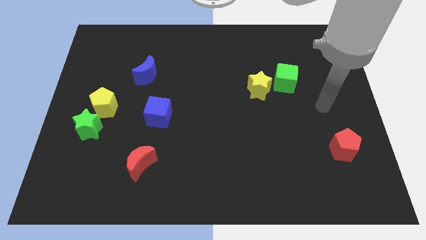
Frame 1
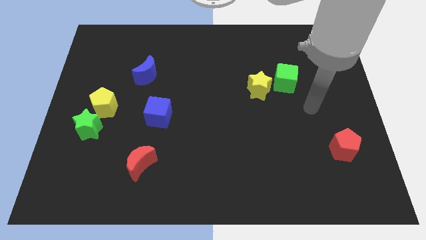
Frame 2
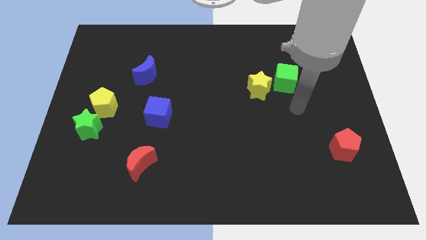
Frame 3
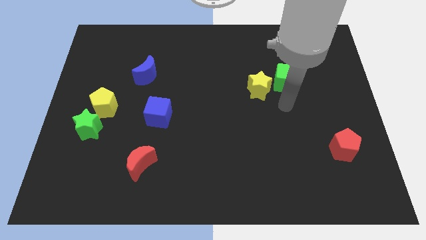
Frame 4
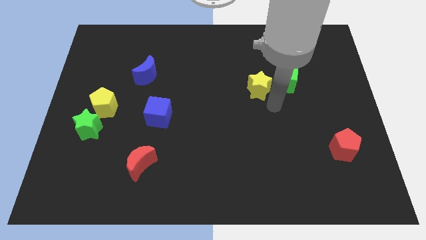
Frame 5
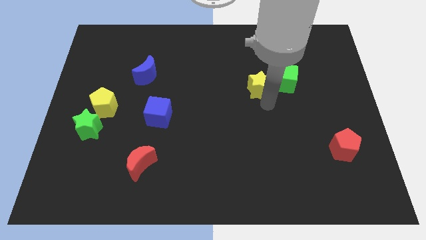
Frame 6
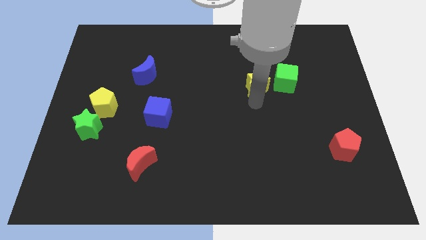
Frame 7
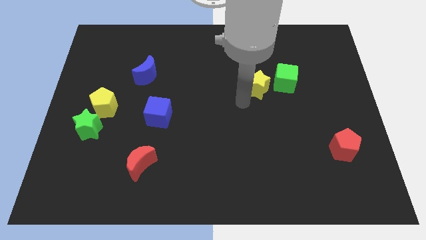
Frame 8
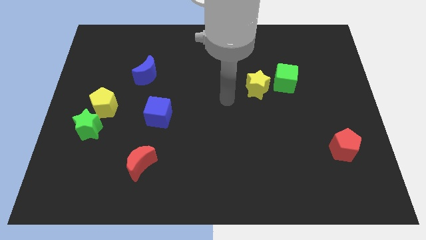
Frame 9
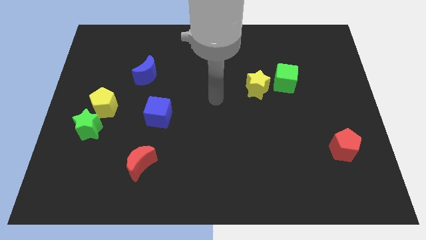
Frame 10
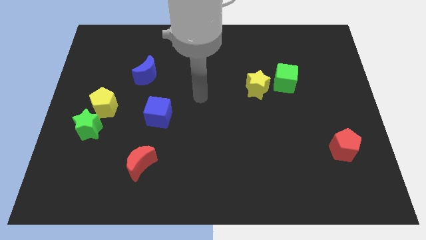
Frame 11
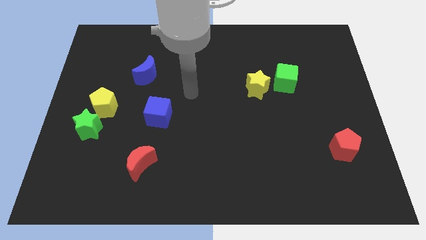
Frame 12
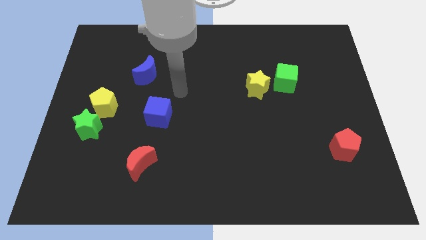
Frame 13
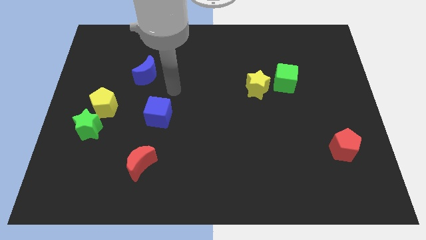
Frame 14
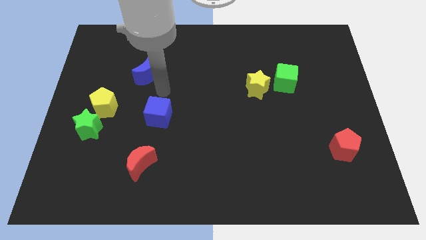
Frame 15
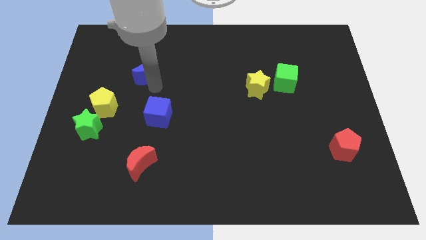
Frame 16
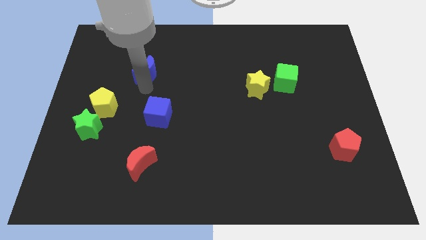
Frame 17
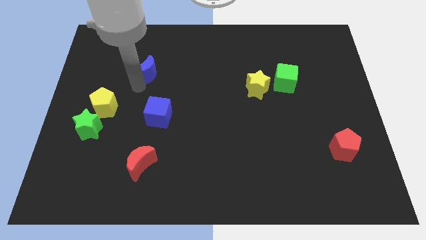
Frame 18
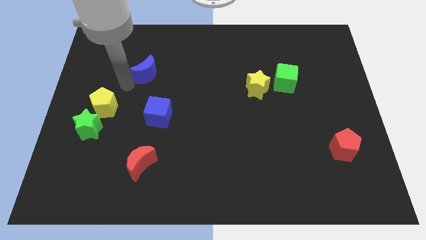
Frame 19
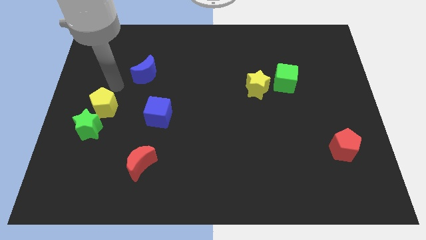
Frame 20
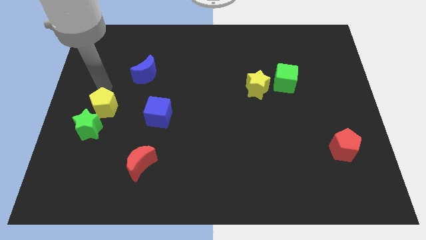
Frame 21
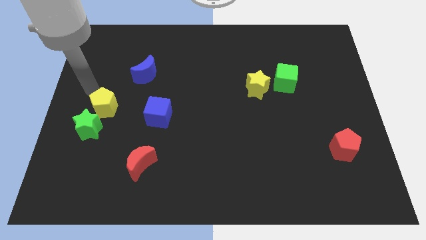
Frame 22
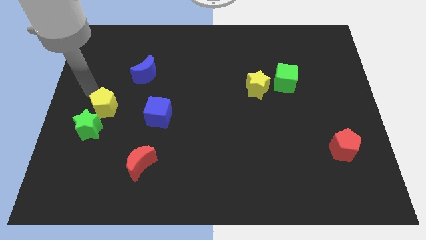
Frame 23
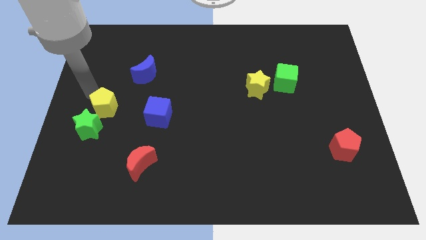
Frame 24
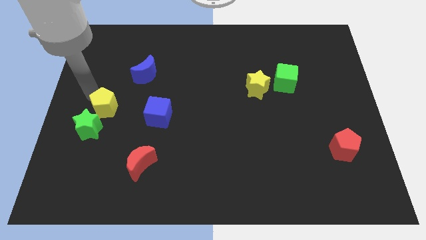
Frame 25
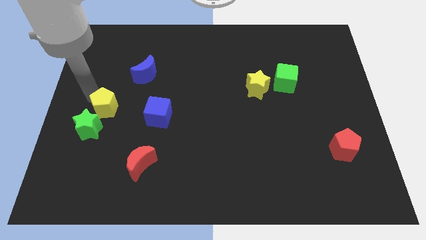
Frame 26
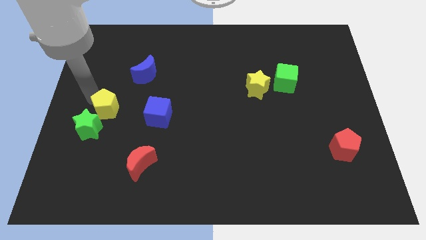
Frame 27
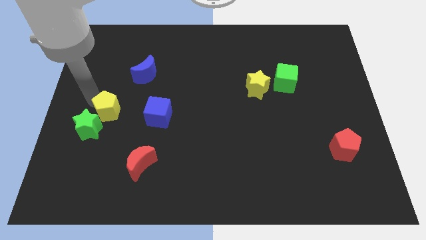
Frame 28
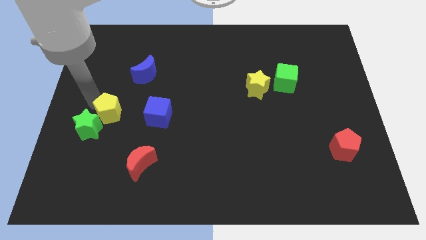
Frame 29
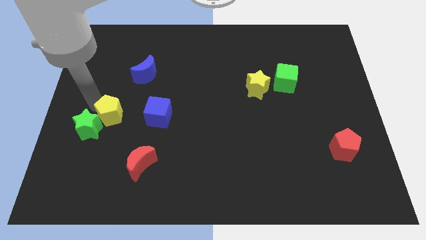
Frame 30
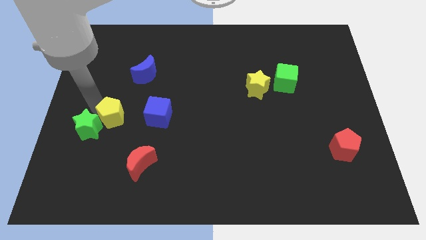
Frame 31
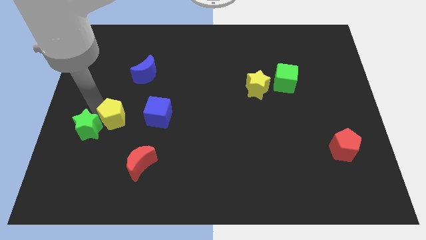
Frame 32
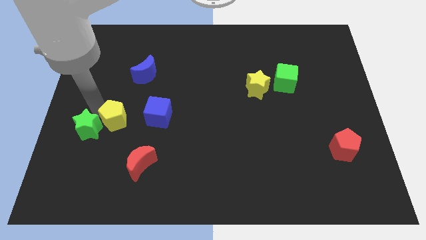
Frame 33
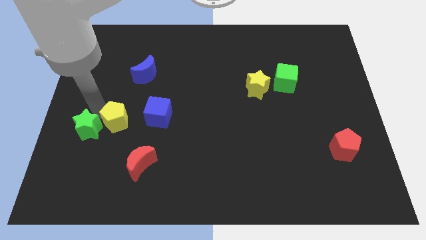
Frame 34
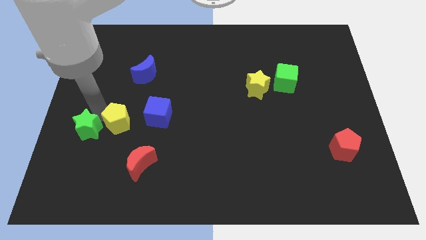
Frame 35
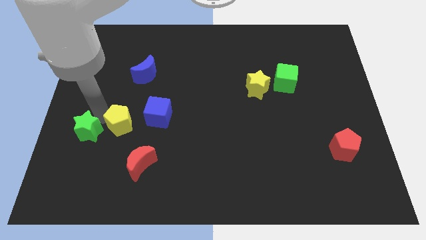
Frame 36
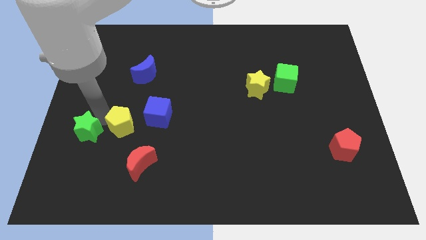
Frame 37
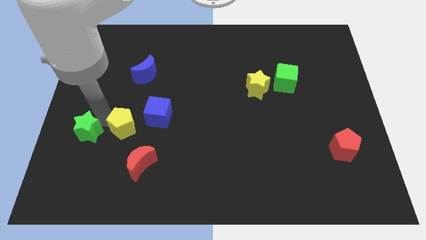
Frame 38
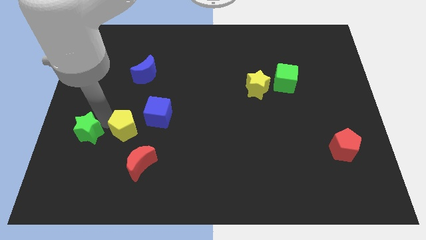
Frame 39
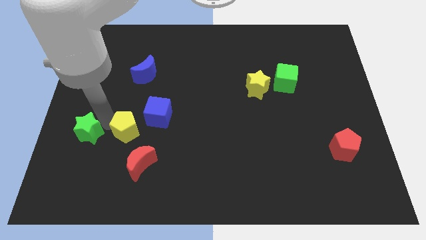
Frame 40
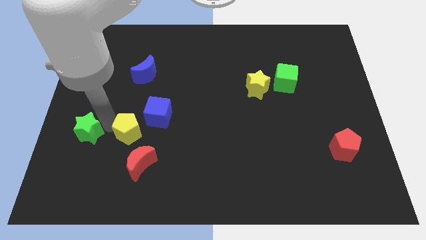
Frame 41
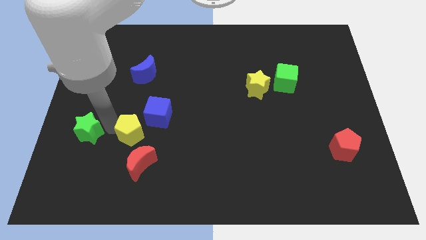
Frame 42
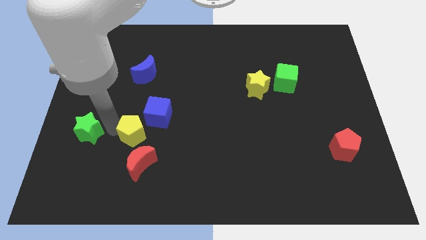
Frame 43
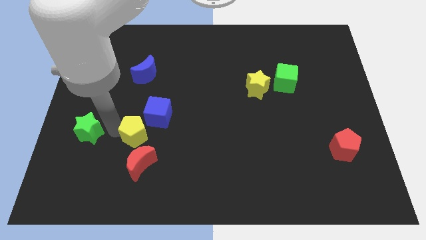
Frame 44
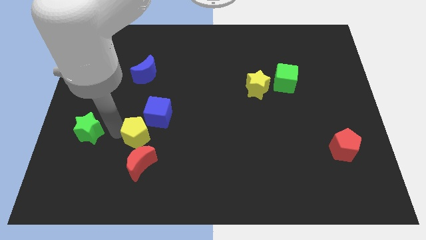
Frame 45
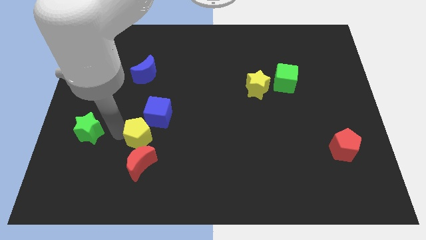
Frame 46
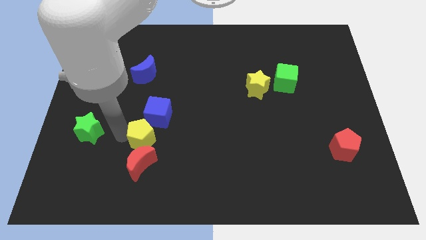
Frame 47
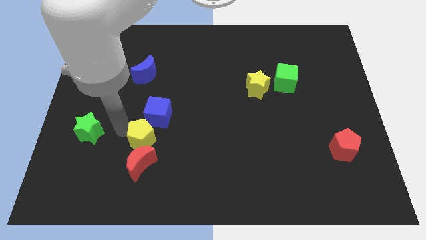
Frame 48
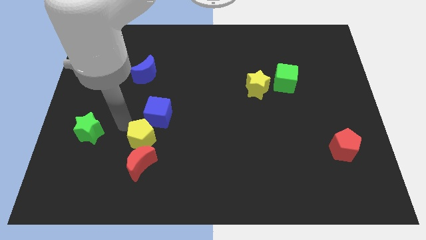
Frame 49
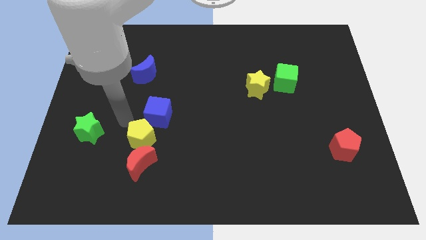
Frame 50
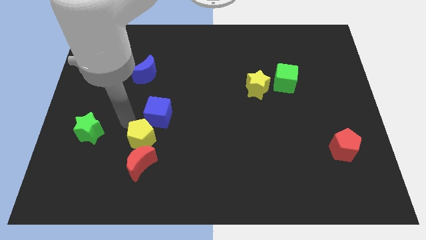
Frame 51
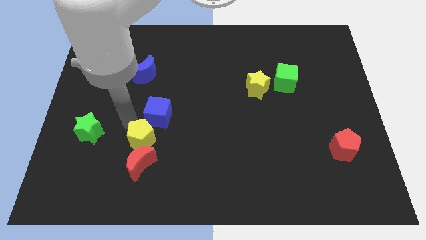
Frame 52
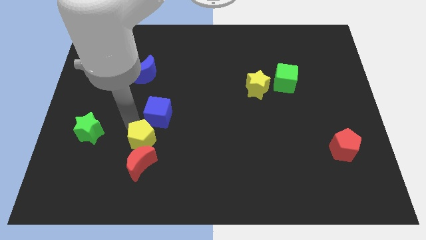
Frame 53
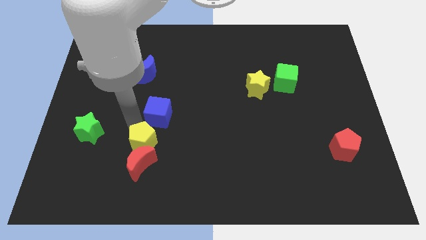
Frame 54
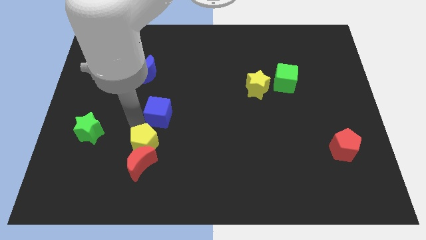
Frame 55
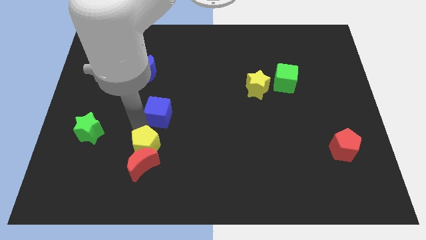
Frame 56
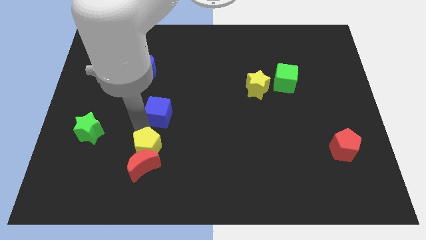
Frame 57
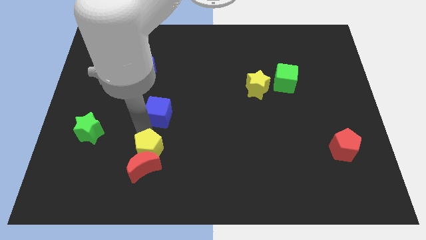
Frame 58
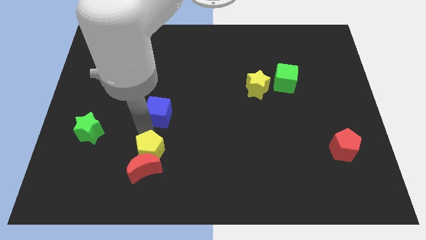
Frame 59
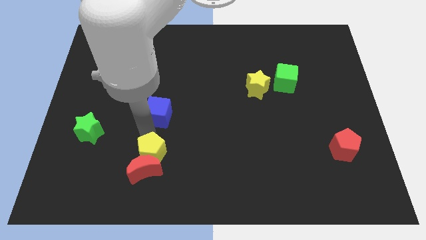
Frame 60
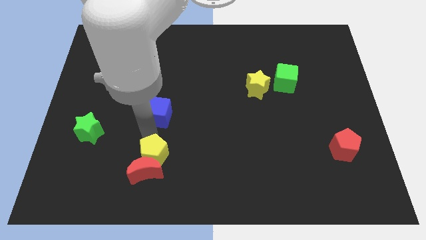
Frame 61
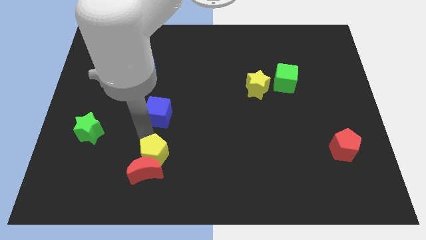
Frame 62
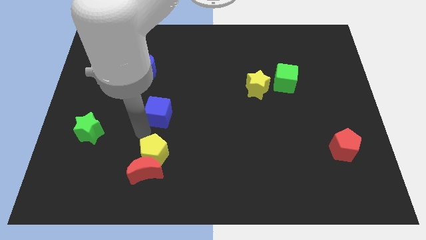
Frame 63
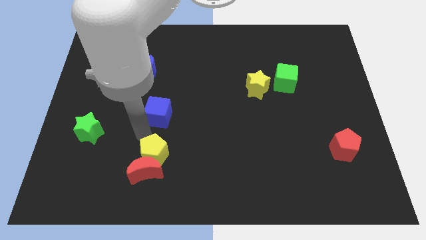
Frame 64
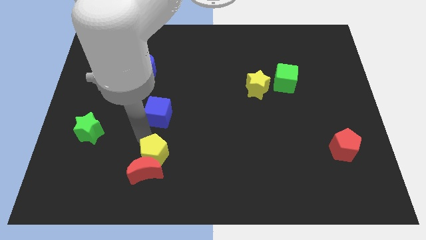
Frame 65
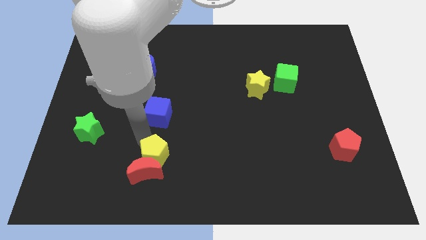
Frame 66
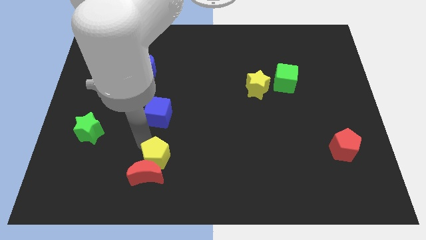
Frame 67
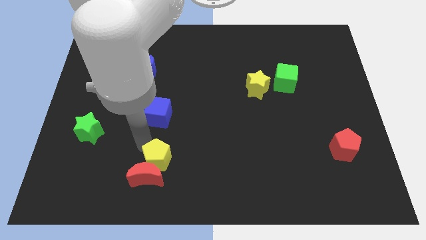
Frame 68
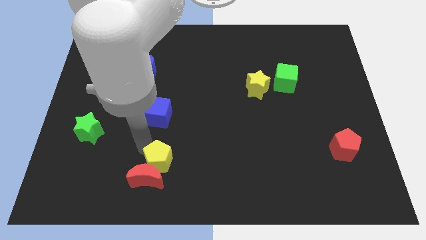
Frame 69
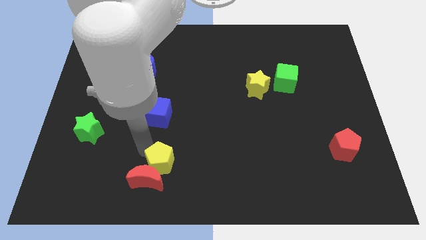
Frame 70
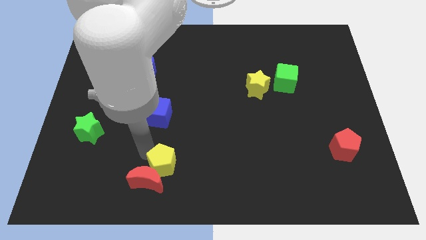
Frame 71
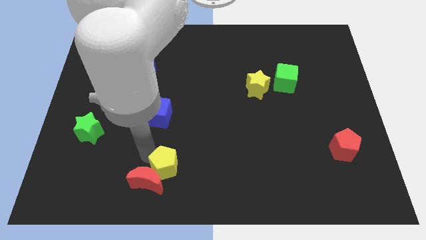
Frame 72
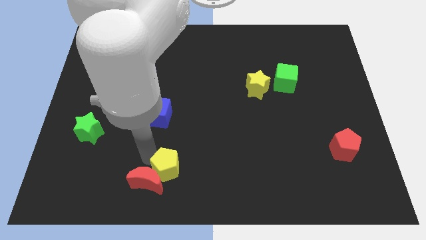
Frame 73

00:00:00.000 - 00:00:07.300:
slide the yellow pentagon to the bottom side
